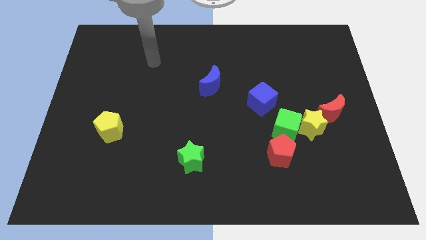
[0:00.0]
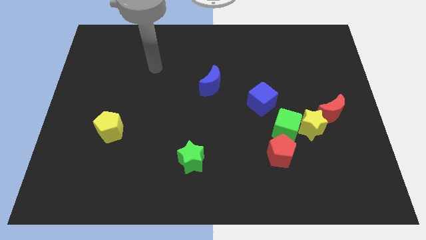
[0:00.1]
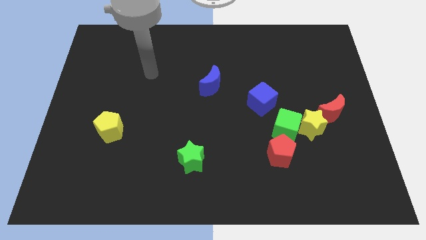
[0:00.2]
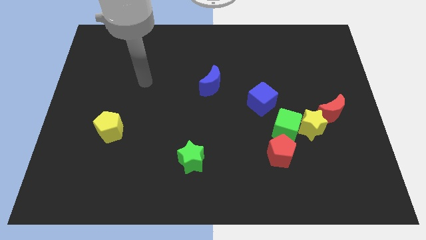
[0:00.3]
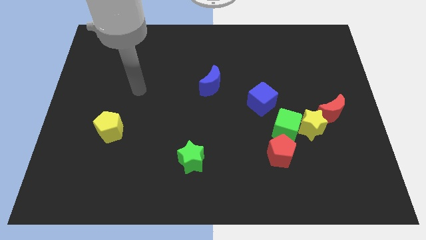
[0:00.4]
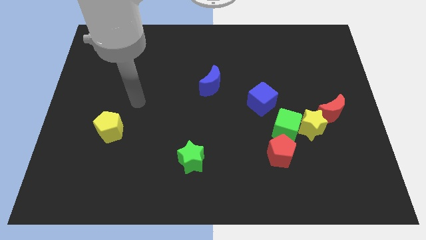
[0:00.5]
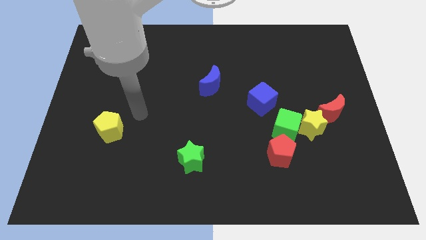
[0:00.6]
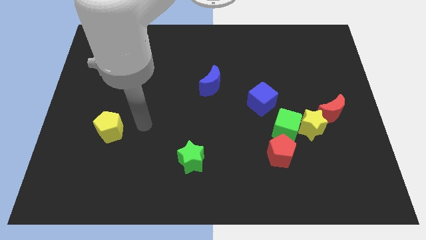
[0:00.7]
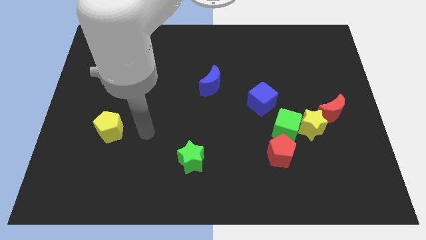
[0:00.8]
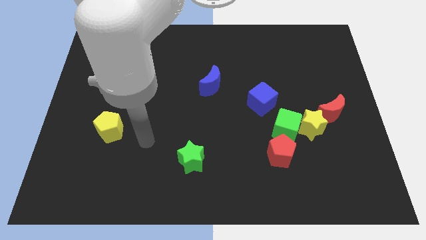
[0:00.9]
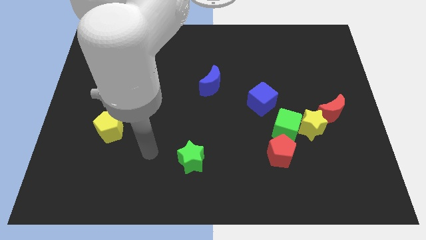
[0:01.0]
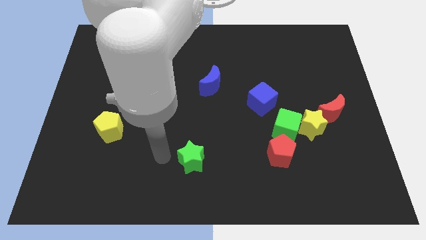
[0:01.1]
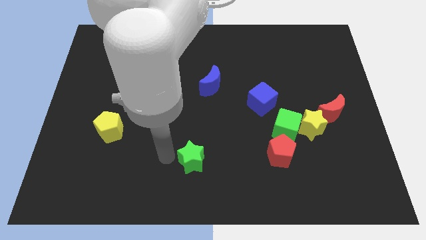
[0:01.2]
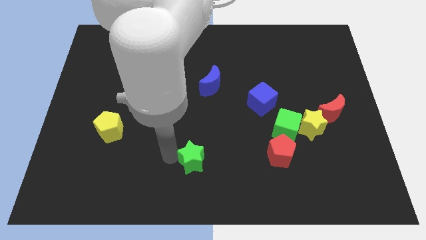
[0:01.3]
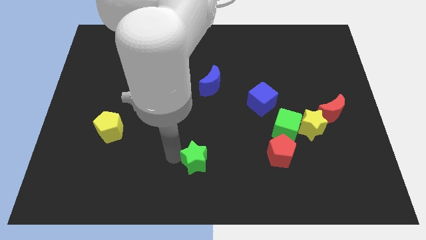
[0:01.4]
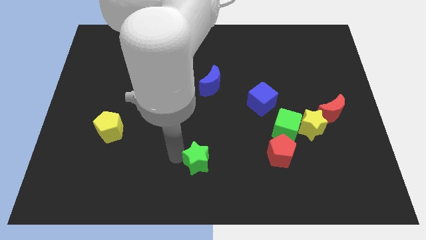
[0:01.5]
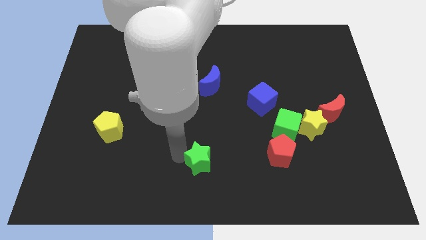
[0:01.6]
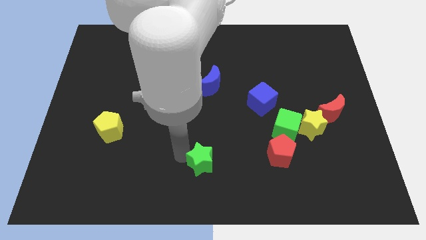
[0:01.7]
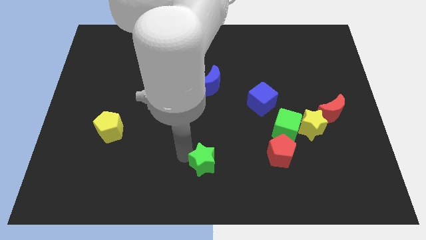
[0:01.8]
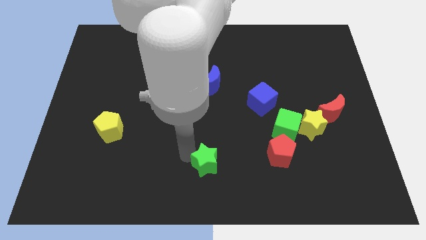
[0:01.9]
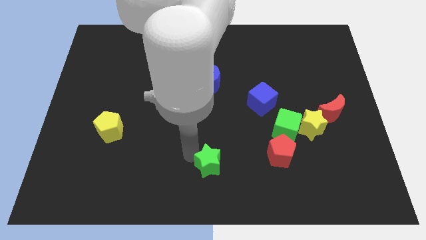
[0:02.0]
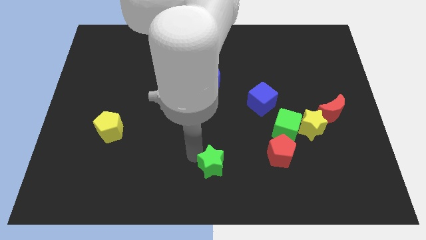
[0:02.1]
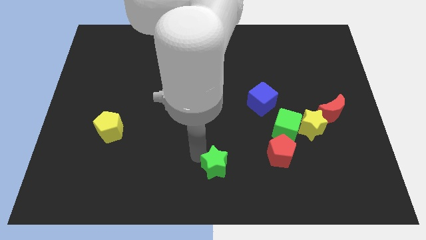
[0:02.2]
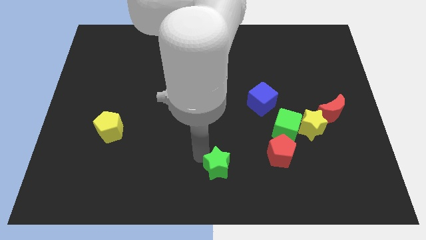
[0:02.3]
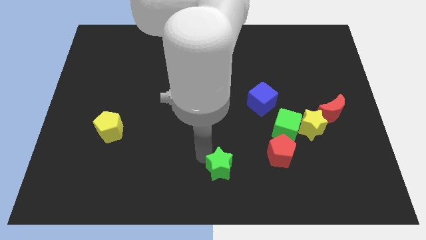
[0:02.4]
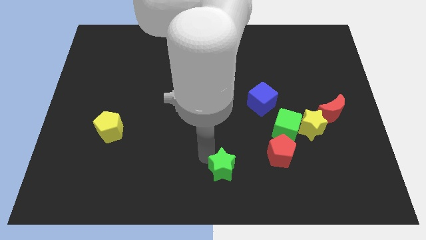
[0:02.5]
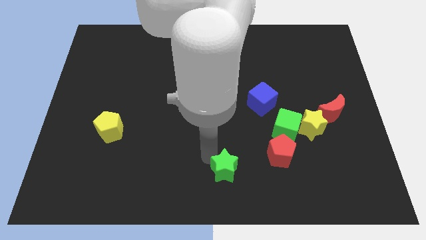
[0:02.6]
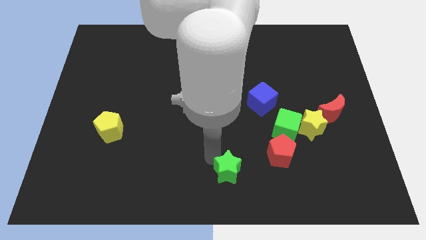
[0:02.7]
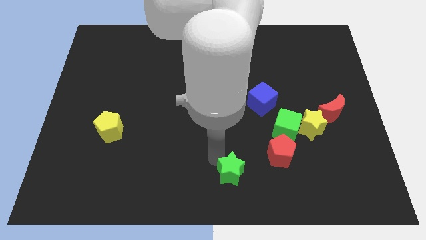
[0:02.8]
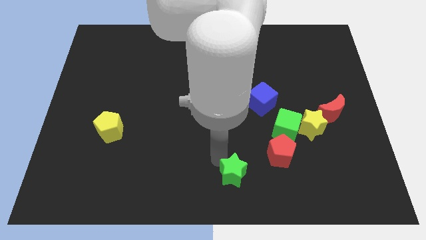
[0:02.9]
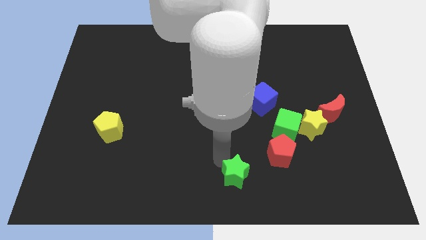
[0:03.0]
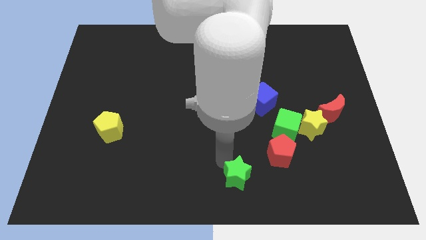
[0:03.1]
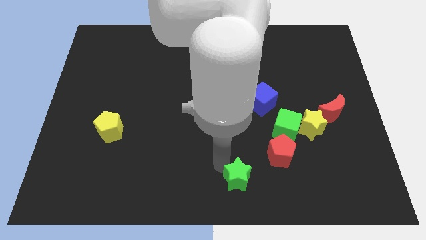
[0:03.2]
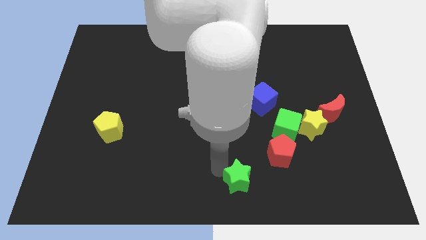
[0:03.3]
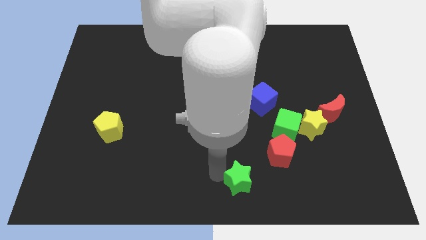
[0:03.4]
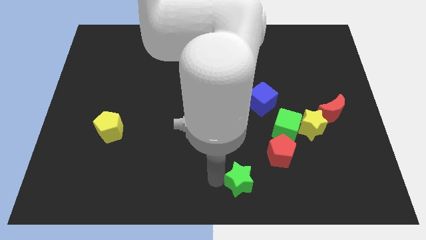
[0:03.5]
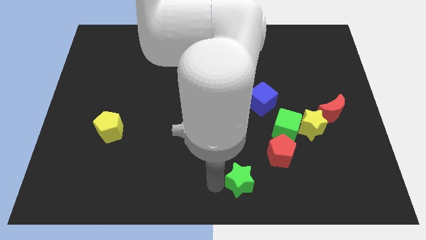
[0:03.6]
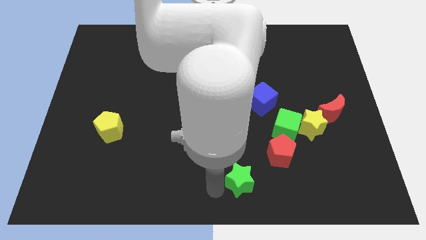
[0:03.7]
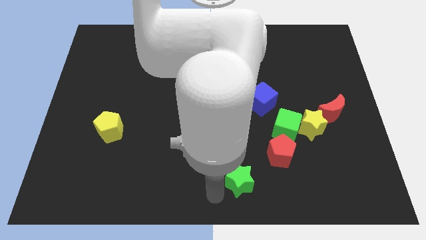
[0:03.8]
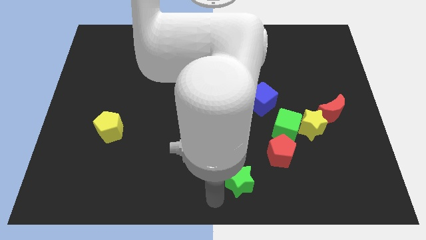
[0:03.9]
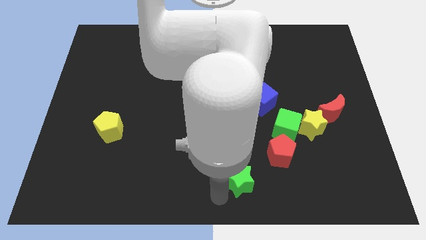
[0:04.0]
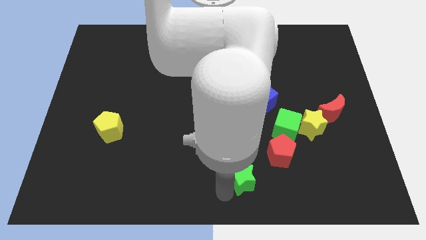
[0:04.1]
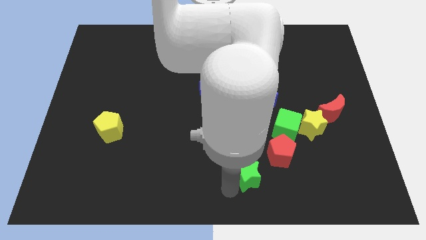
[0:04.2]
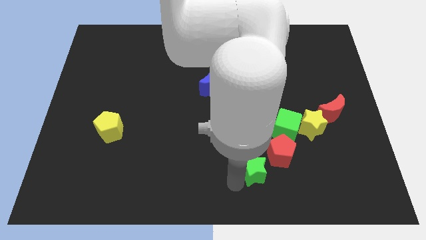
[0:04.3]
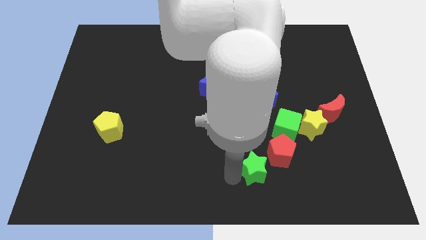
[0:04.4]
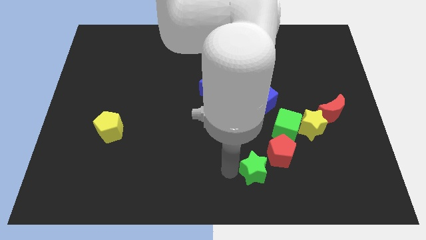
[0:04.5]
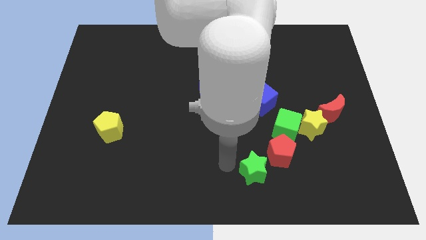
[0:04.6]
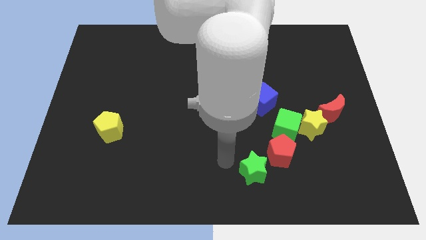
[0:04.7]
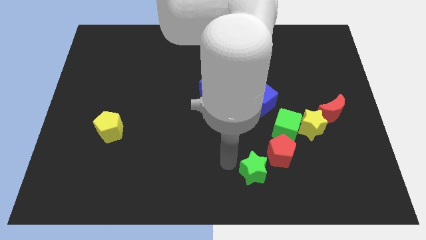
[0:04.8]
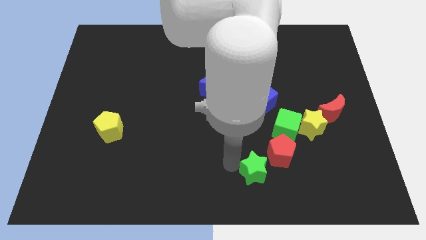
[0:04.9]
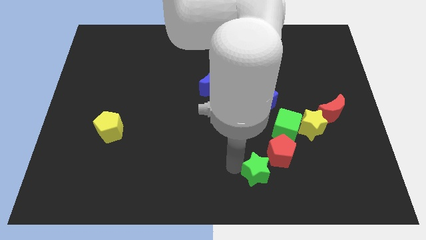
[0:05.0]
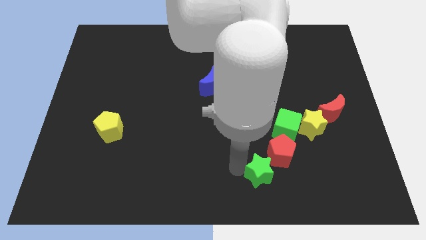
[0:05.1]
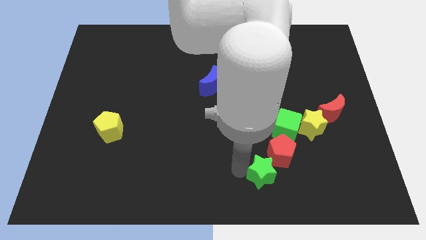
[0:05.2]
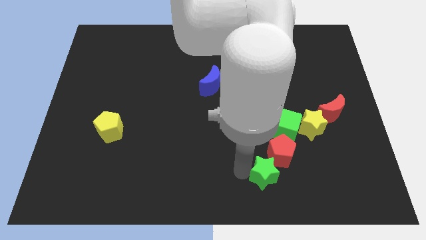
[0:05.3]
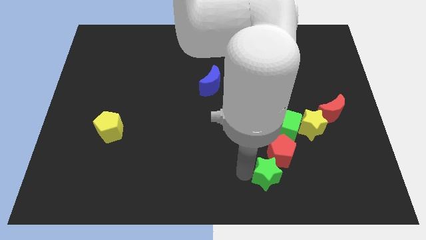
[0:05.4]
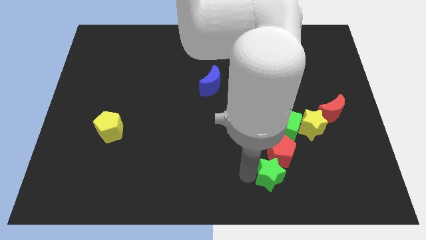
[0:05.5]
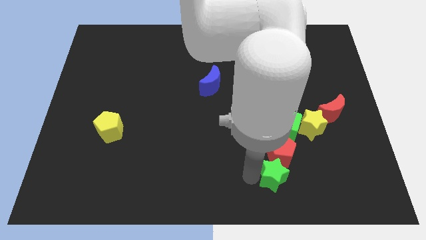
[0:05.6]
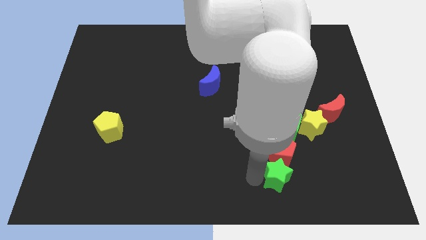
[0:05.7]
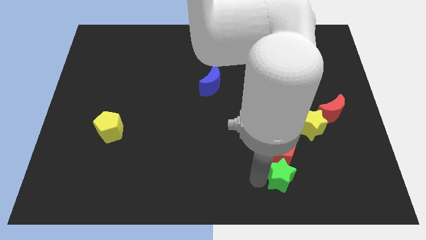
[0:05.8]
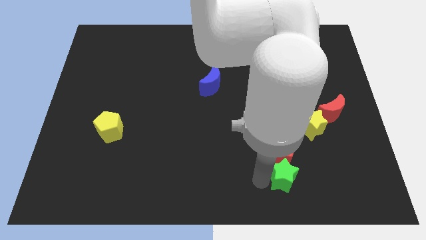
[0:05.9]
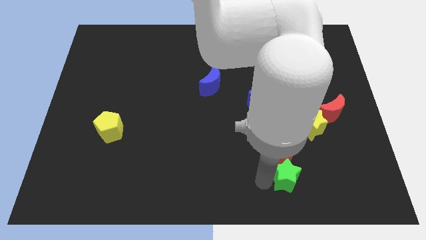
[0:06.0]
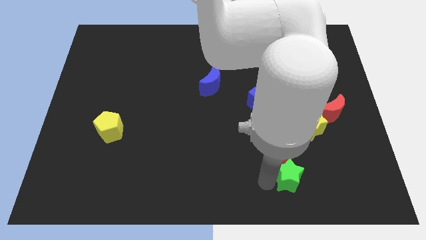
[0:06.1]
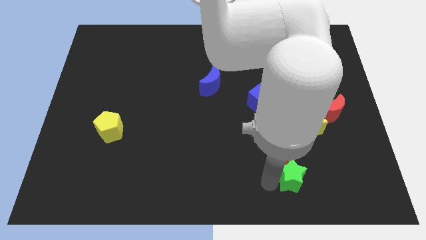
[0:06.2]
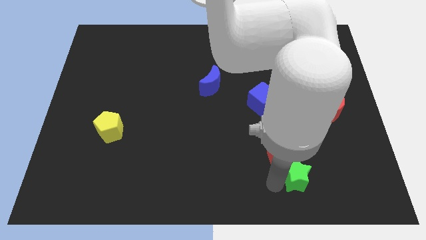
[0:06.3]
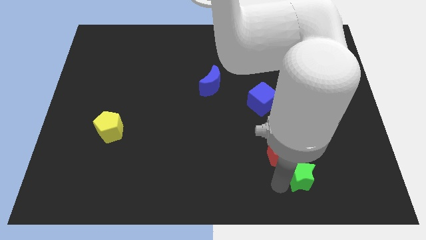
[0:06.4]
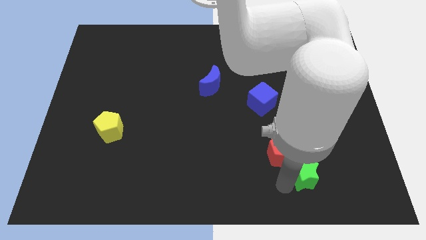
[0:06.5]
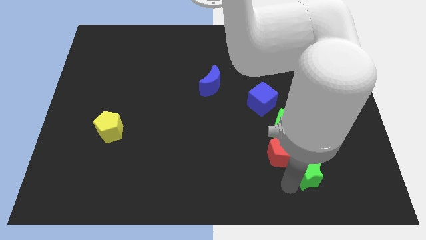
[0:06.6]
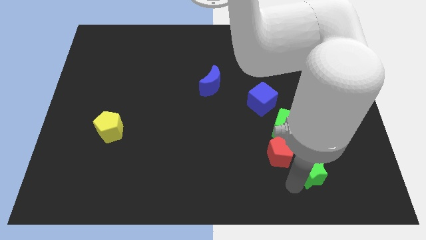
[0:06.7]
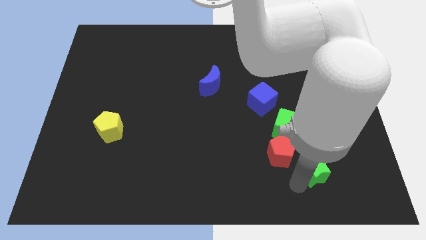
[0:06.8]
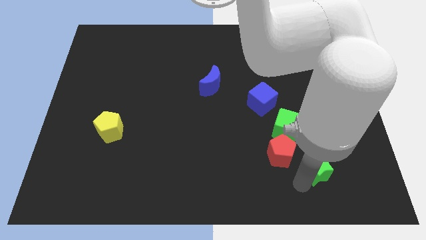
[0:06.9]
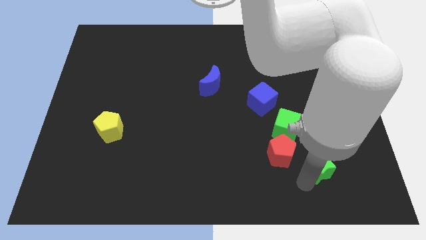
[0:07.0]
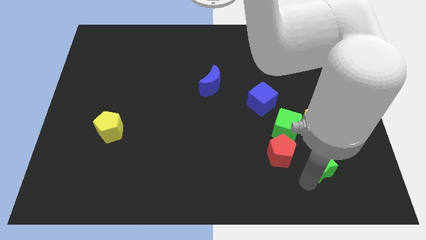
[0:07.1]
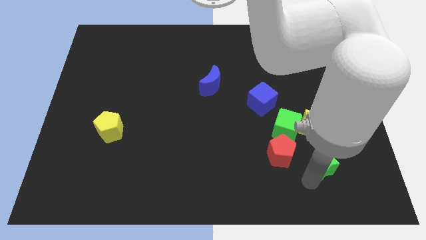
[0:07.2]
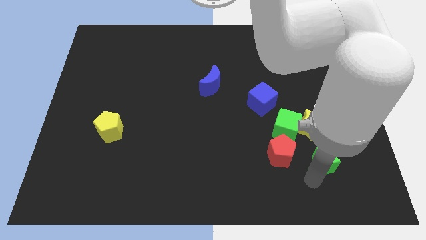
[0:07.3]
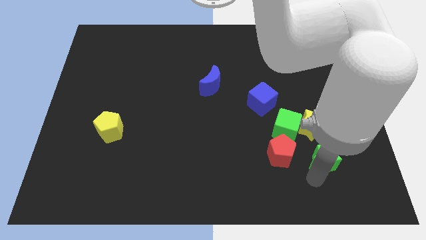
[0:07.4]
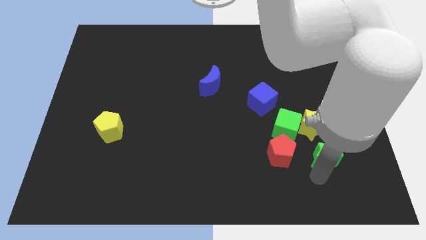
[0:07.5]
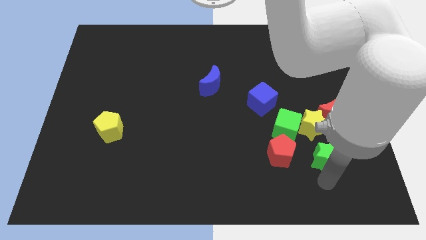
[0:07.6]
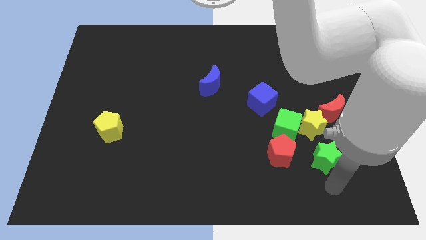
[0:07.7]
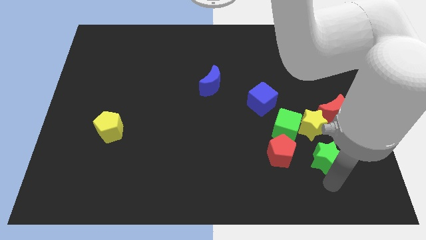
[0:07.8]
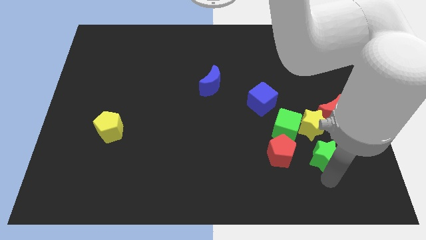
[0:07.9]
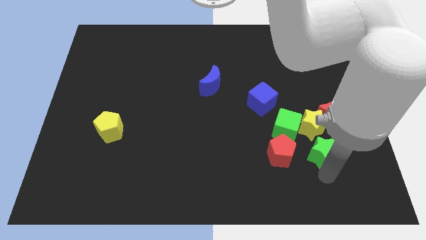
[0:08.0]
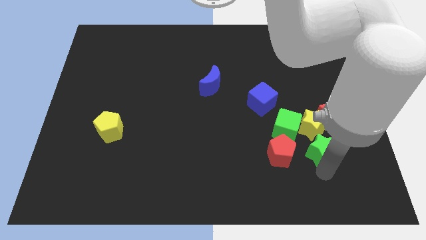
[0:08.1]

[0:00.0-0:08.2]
put the green star towards the yellow star
